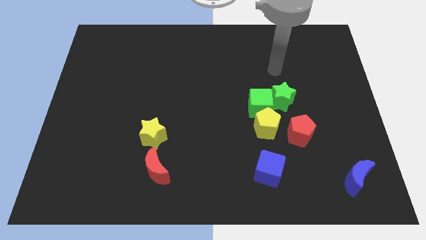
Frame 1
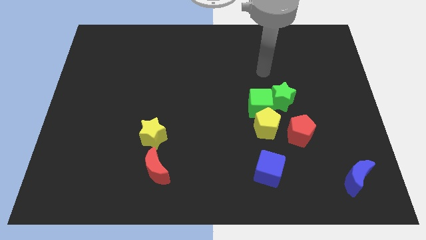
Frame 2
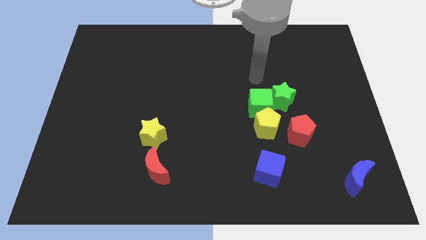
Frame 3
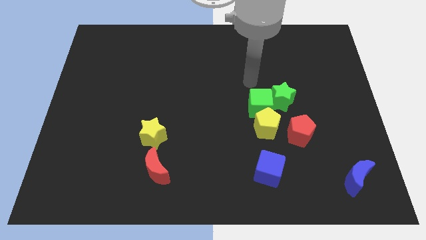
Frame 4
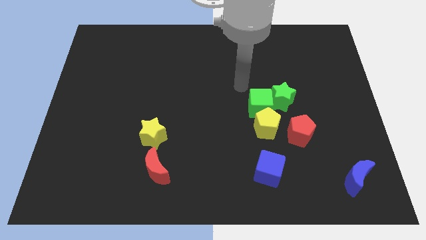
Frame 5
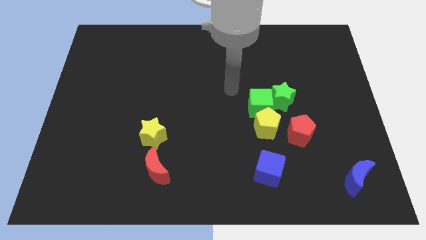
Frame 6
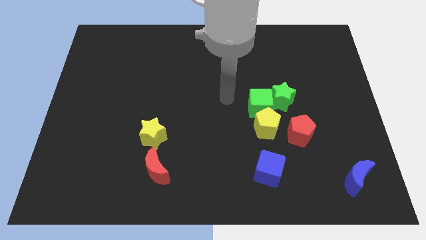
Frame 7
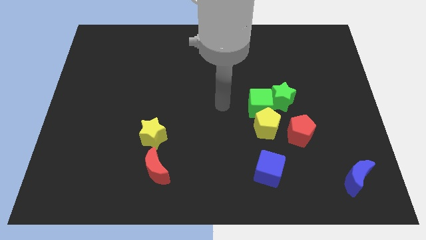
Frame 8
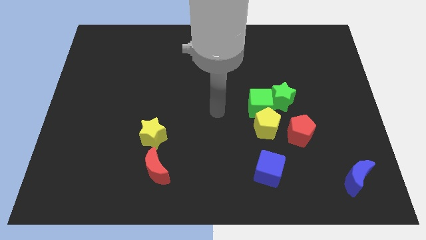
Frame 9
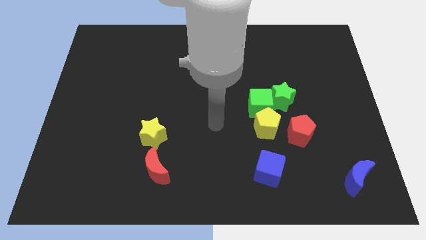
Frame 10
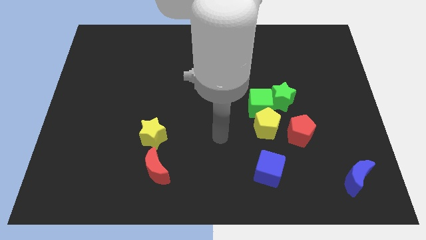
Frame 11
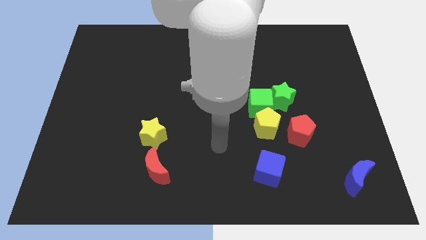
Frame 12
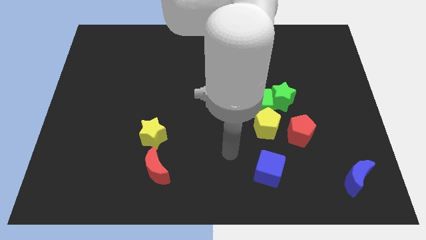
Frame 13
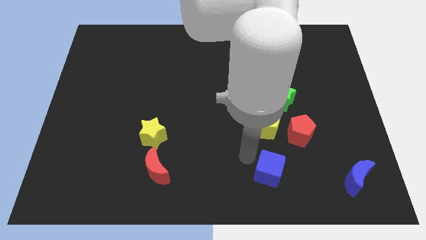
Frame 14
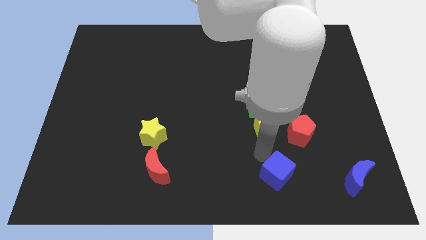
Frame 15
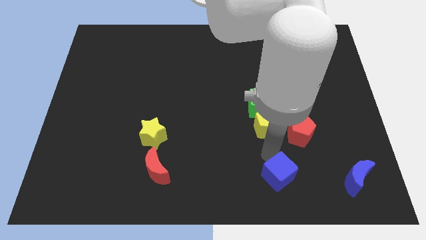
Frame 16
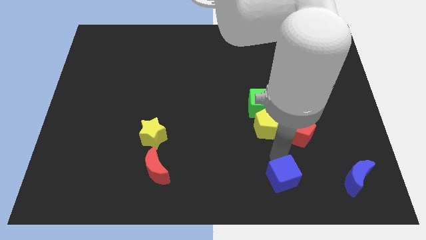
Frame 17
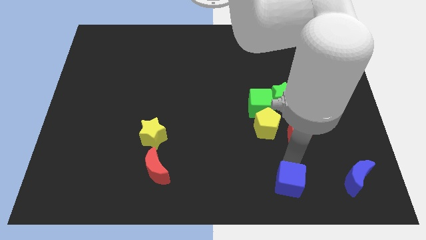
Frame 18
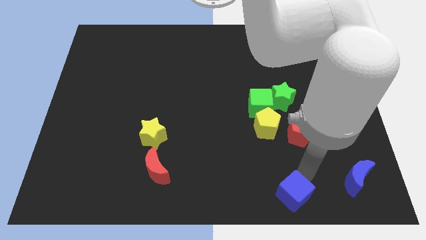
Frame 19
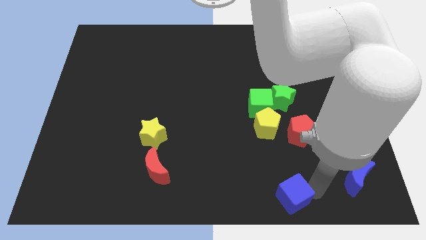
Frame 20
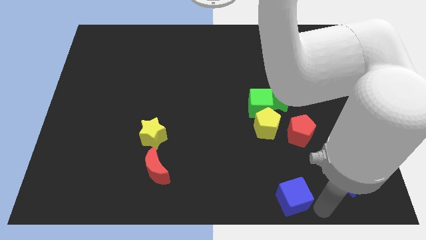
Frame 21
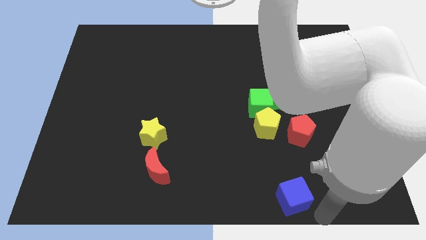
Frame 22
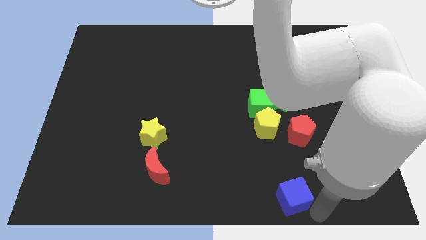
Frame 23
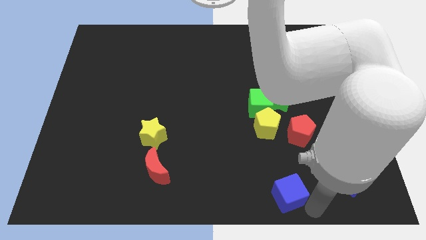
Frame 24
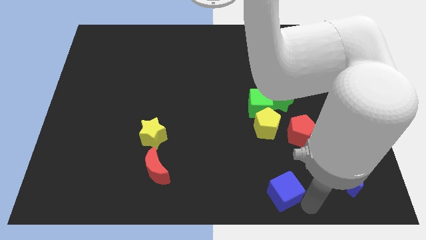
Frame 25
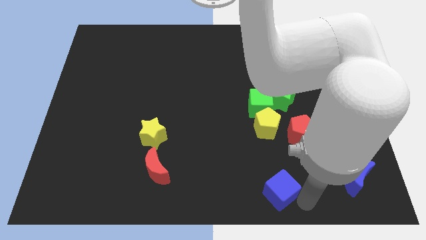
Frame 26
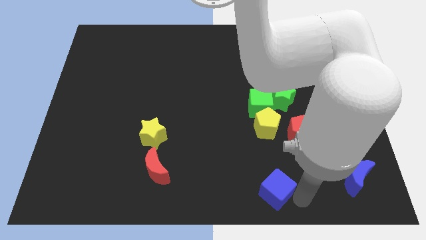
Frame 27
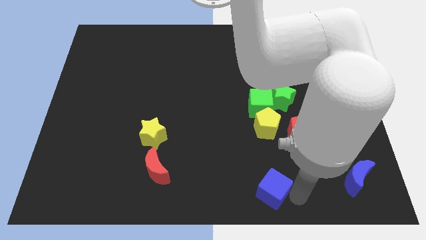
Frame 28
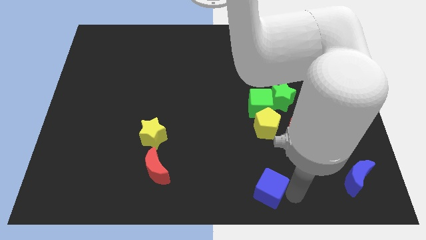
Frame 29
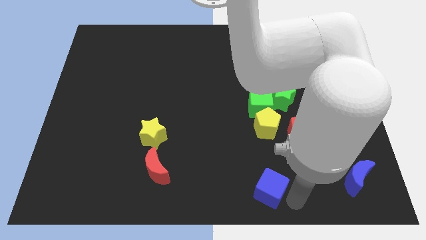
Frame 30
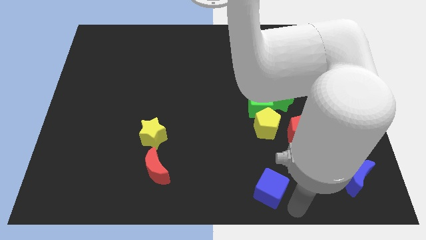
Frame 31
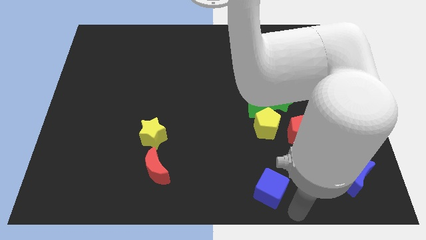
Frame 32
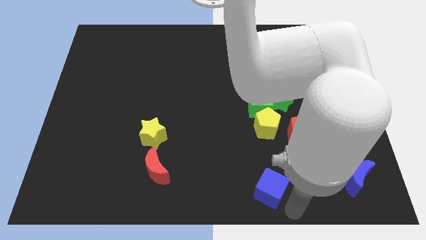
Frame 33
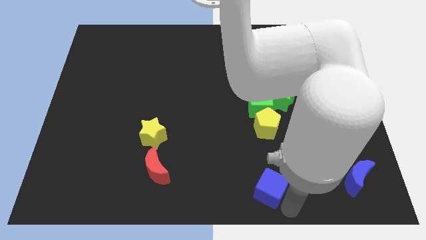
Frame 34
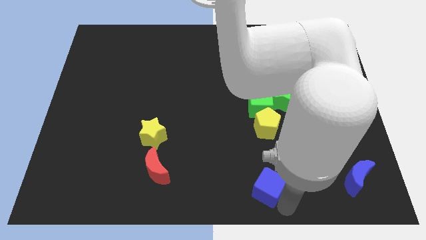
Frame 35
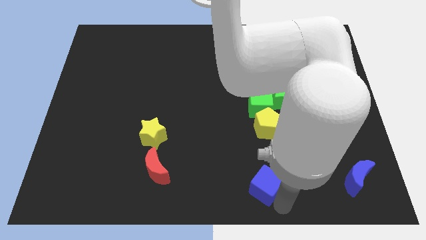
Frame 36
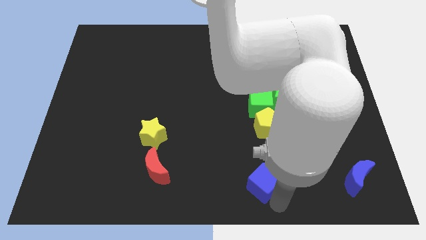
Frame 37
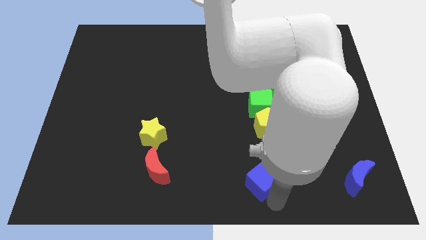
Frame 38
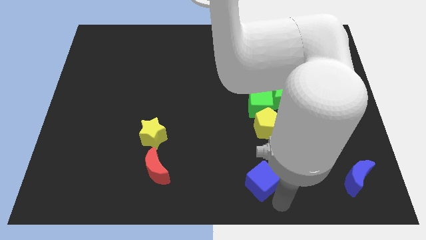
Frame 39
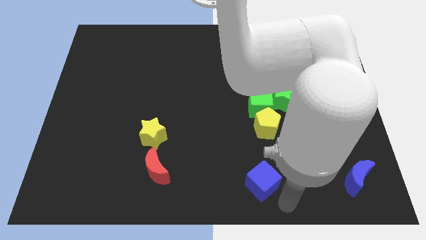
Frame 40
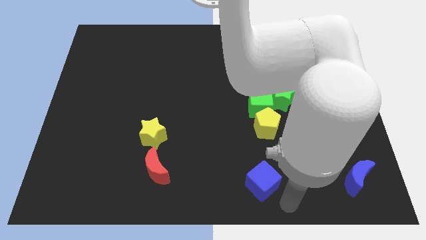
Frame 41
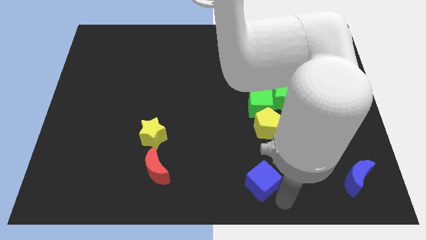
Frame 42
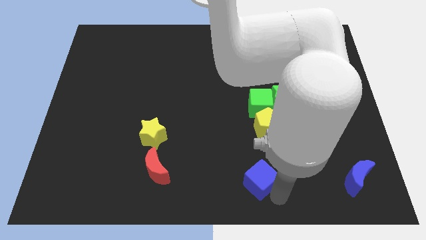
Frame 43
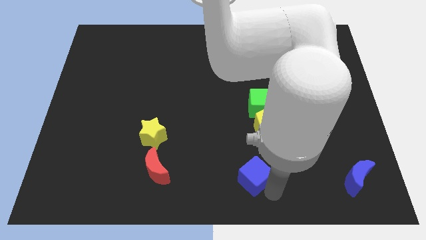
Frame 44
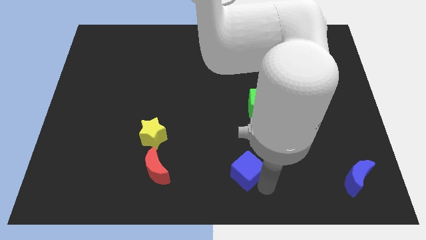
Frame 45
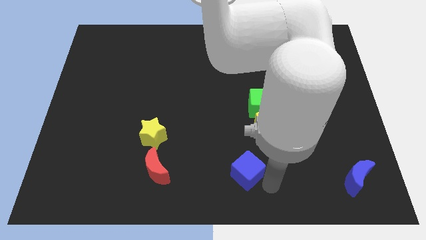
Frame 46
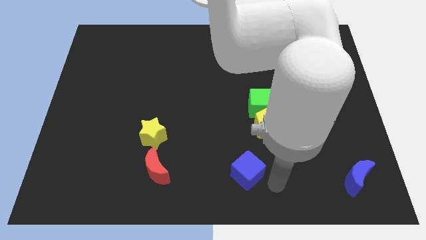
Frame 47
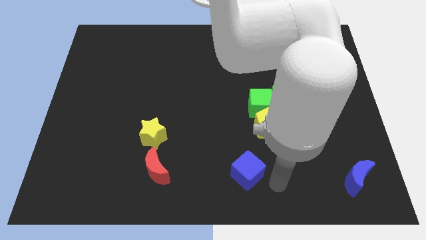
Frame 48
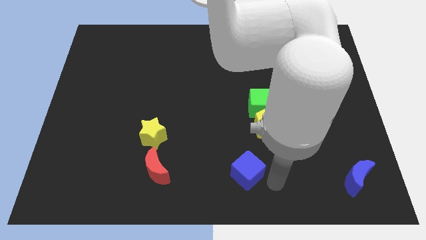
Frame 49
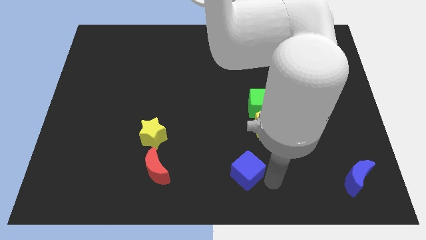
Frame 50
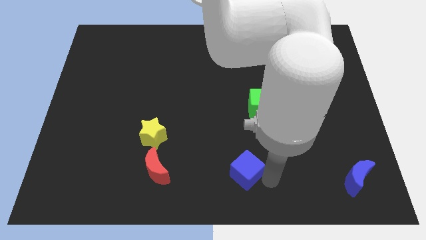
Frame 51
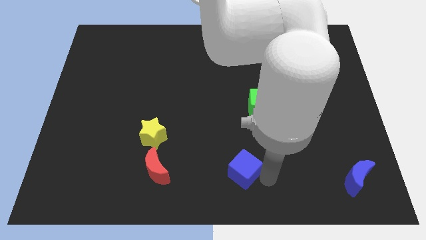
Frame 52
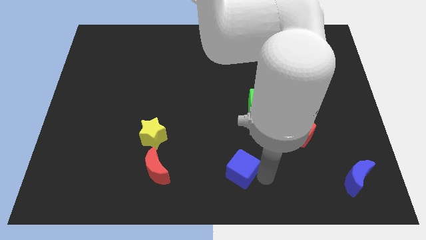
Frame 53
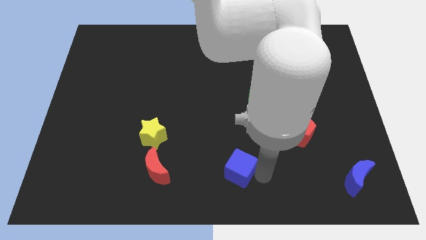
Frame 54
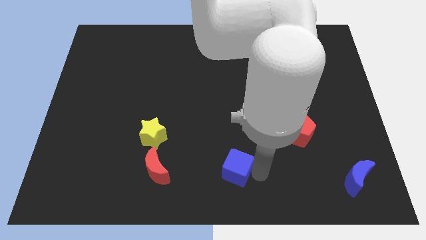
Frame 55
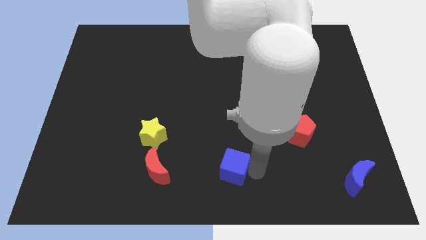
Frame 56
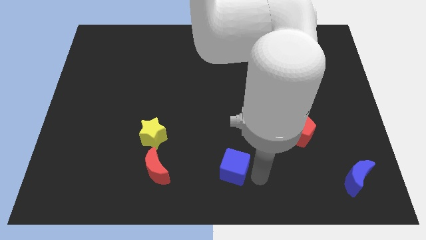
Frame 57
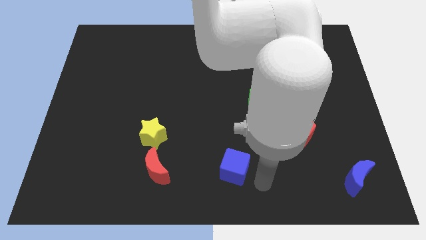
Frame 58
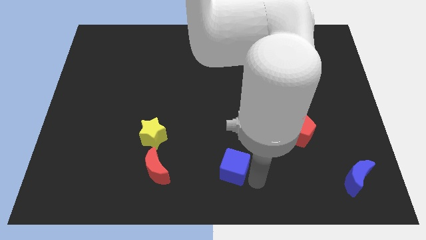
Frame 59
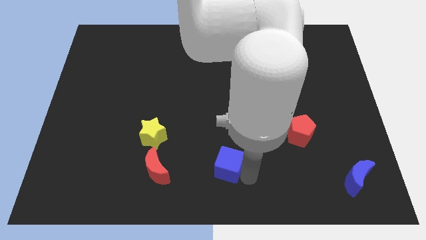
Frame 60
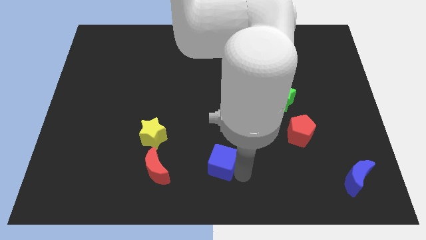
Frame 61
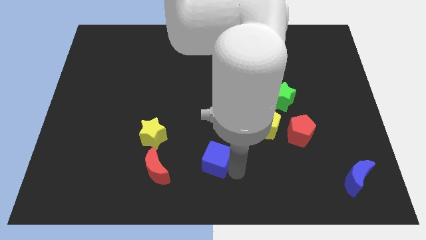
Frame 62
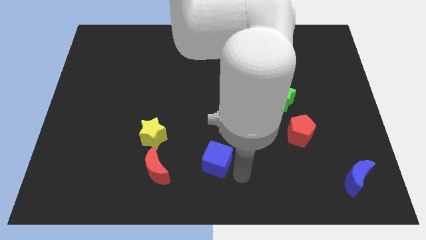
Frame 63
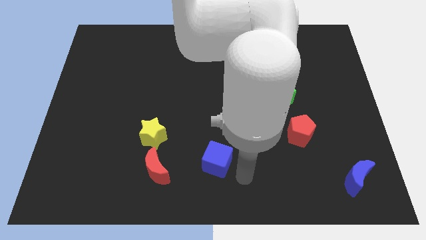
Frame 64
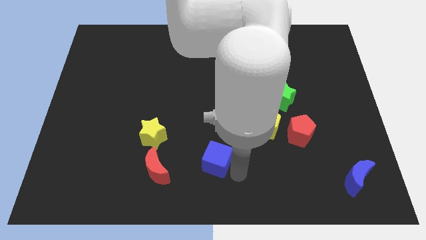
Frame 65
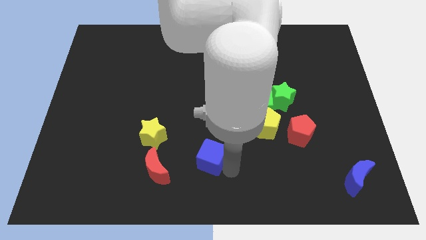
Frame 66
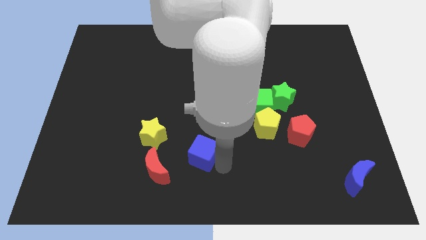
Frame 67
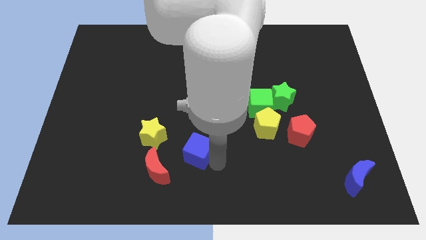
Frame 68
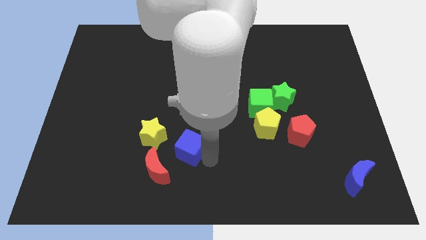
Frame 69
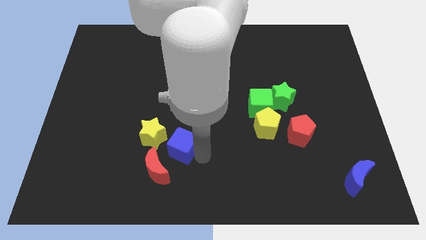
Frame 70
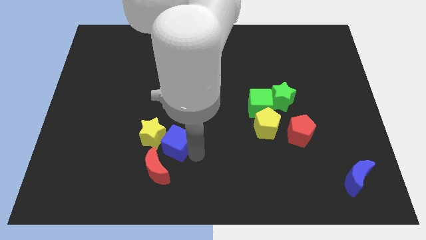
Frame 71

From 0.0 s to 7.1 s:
push the blue cube next to the yellow star

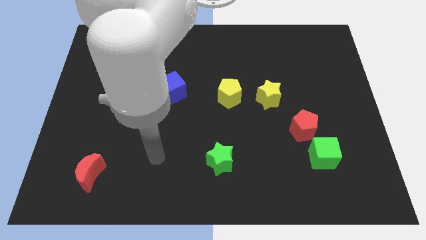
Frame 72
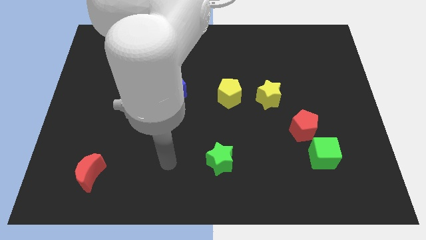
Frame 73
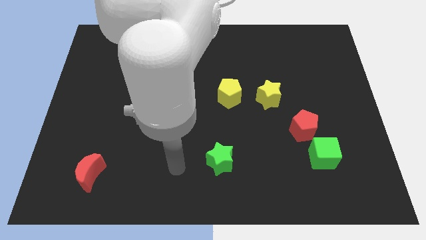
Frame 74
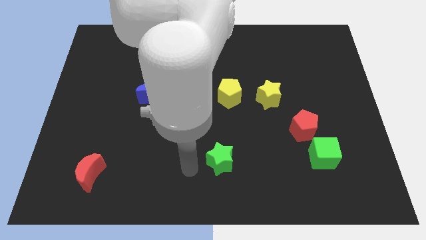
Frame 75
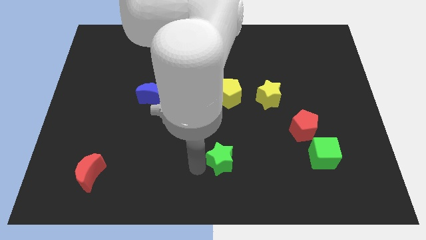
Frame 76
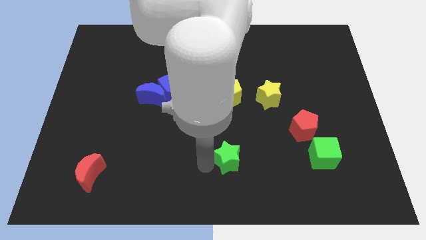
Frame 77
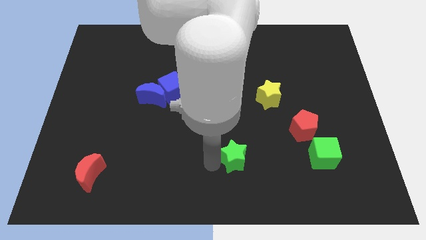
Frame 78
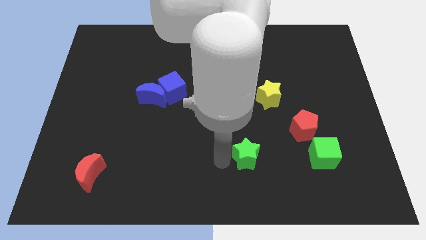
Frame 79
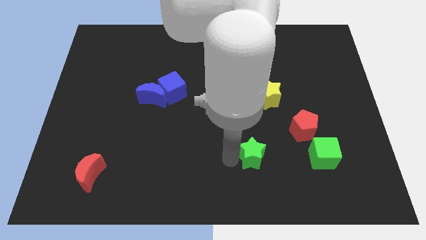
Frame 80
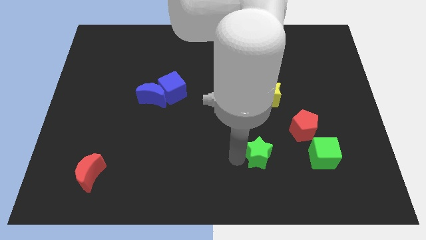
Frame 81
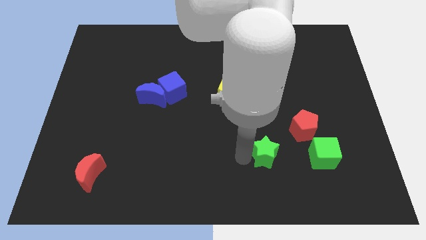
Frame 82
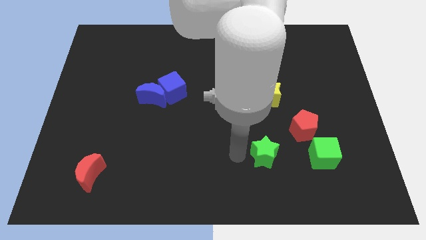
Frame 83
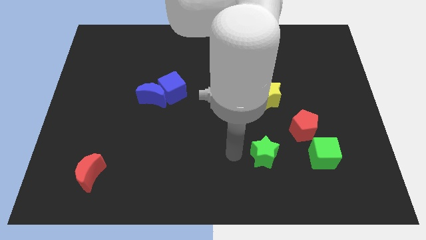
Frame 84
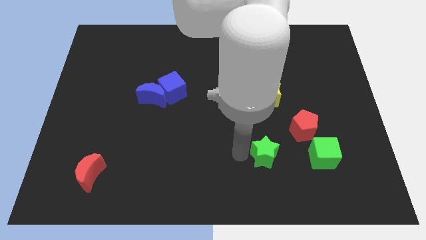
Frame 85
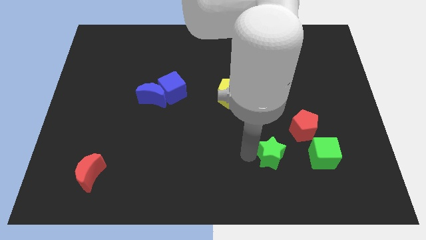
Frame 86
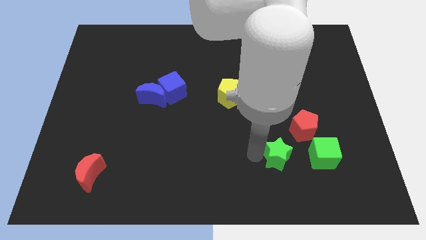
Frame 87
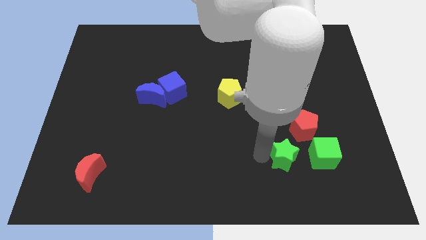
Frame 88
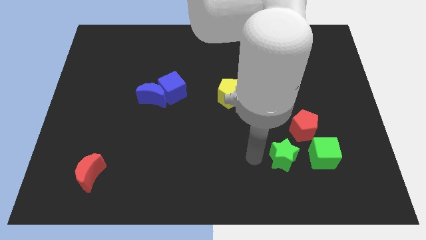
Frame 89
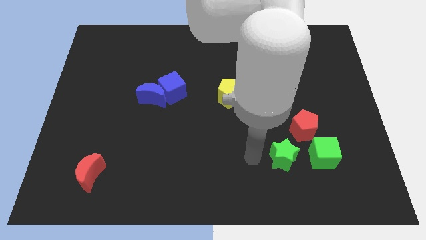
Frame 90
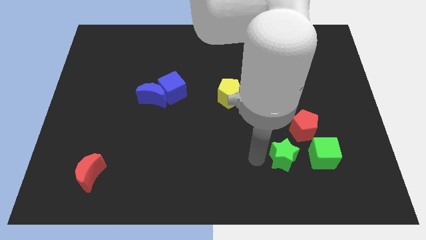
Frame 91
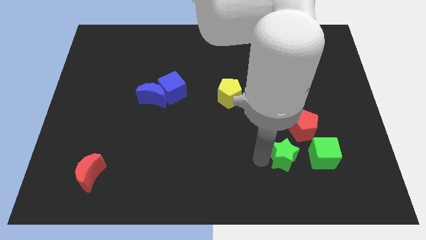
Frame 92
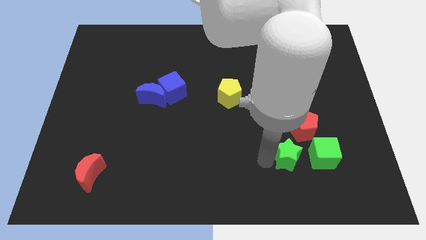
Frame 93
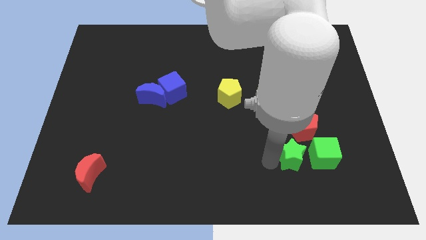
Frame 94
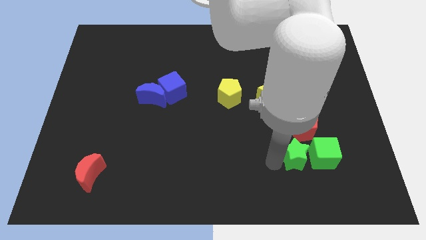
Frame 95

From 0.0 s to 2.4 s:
put the green star towards the green cube
